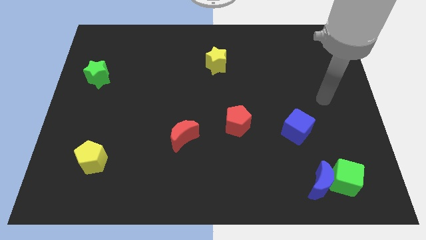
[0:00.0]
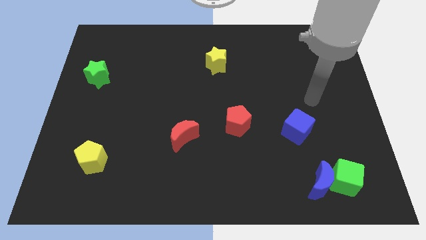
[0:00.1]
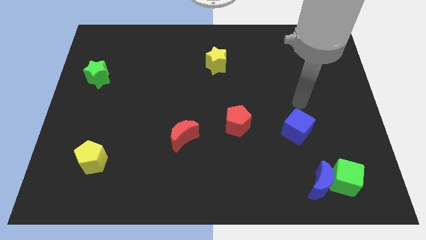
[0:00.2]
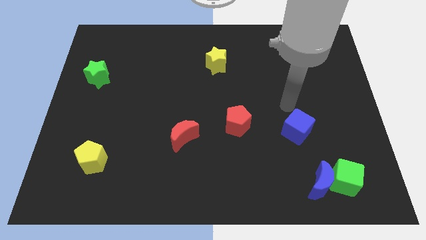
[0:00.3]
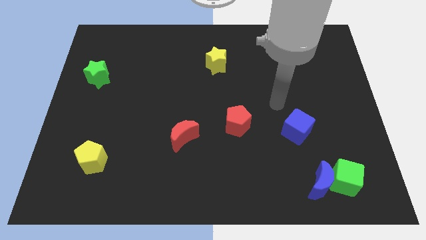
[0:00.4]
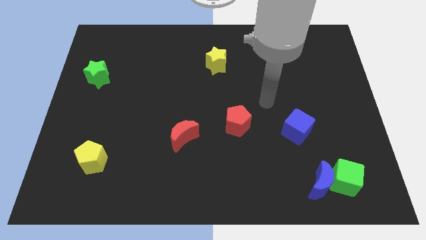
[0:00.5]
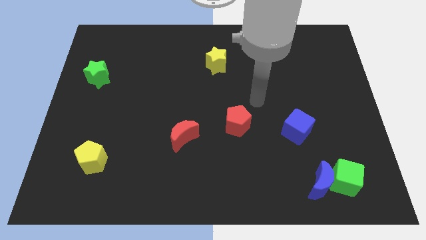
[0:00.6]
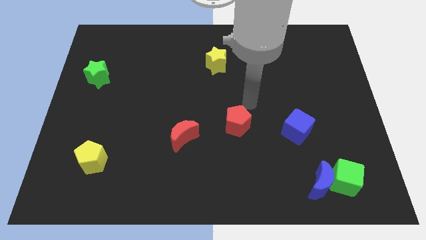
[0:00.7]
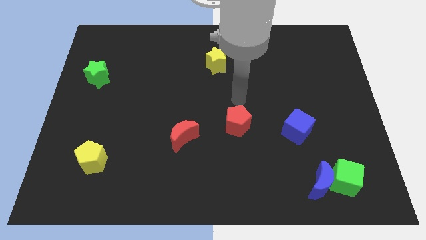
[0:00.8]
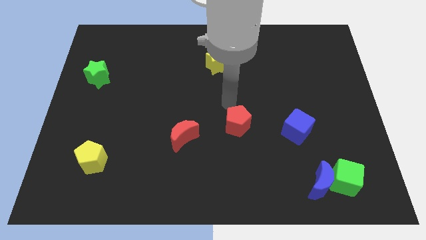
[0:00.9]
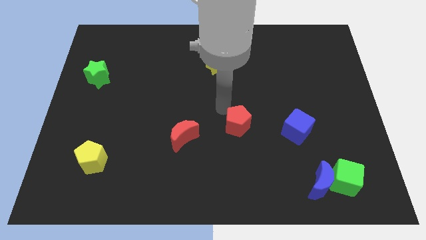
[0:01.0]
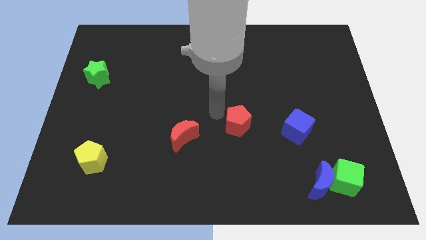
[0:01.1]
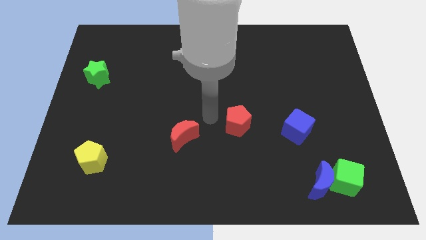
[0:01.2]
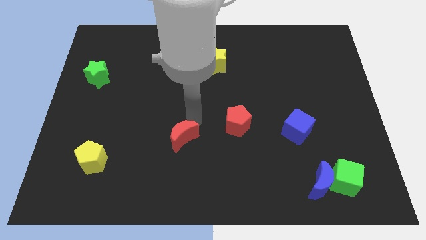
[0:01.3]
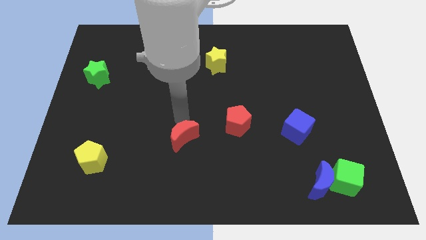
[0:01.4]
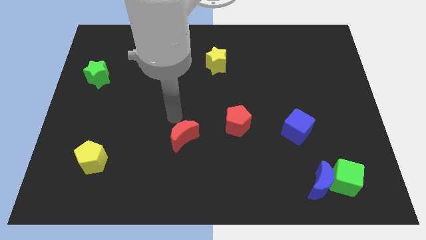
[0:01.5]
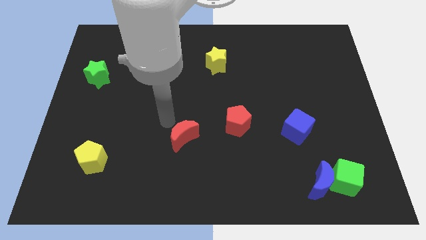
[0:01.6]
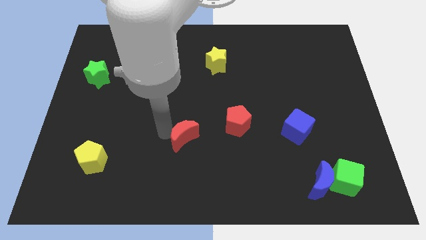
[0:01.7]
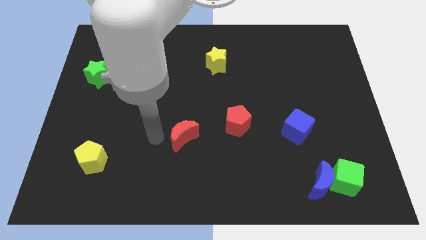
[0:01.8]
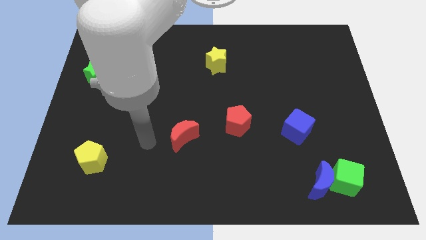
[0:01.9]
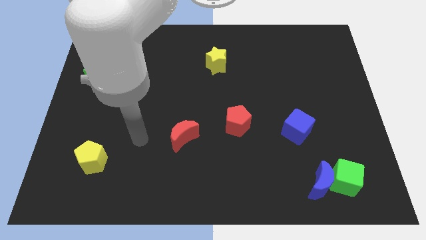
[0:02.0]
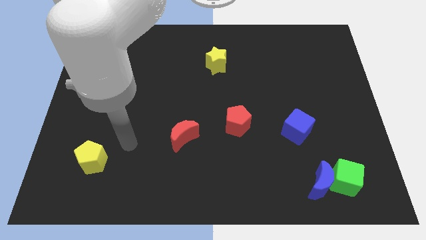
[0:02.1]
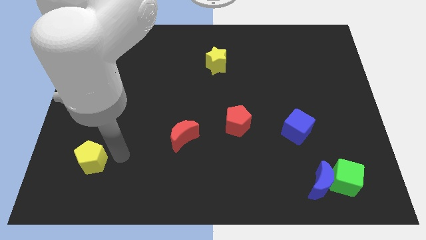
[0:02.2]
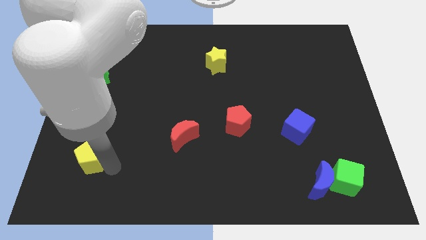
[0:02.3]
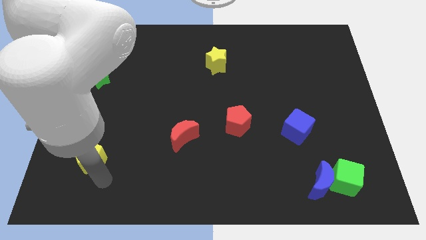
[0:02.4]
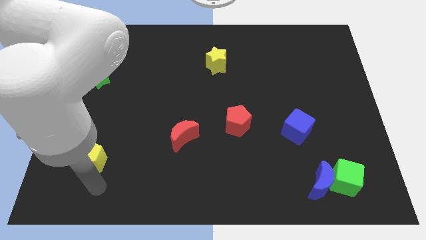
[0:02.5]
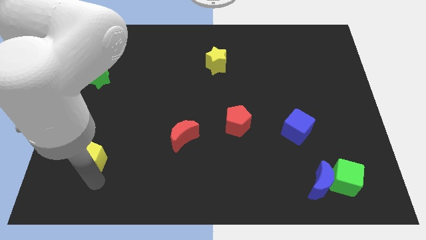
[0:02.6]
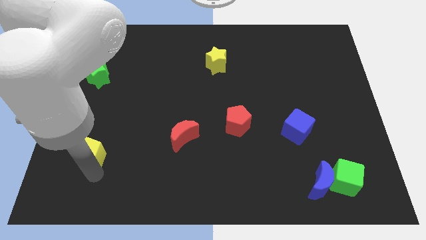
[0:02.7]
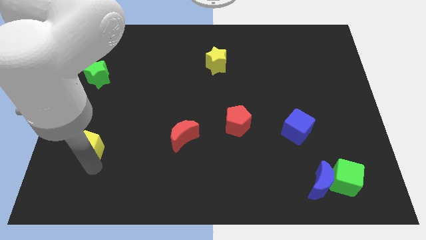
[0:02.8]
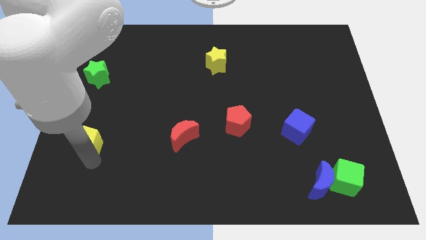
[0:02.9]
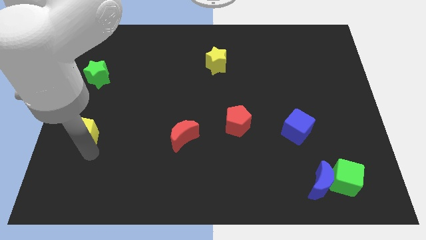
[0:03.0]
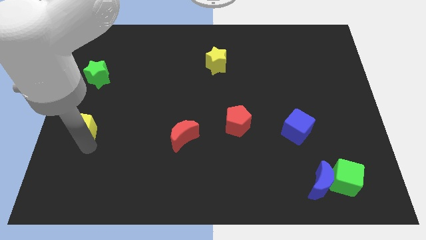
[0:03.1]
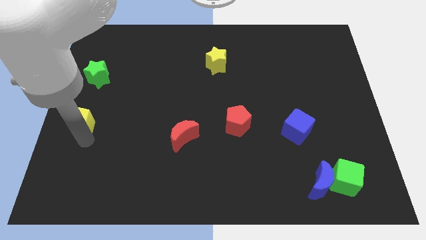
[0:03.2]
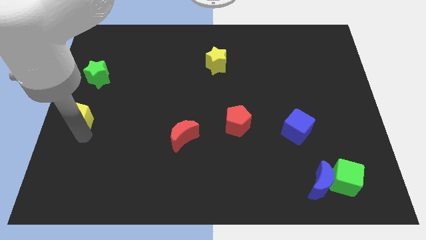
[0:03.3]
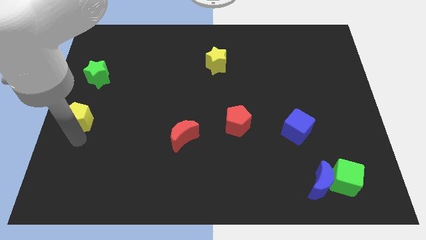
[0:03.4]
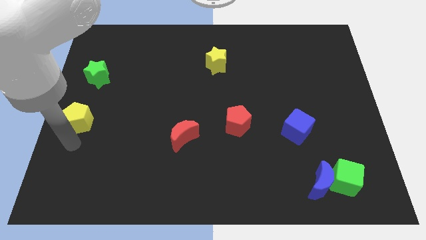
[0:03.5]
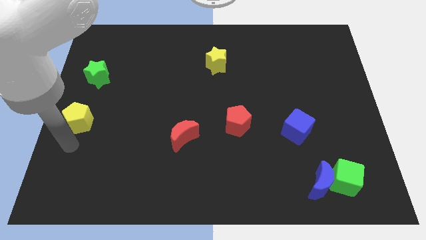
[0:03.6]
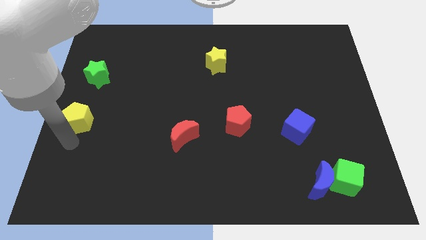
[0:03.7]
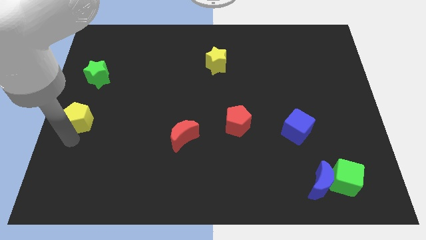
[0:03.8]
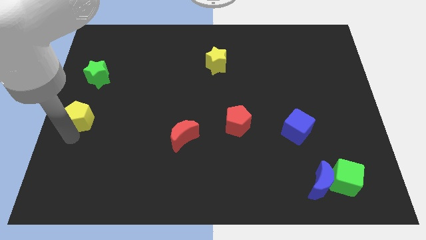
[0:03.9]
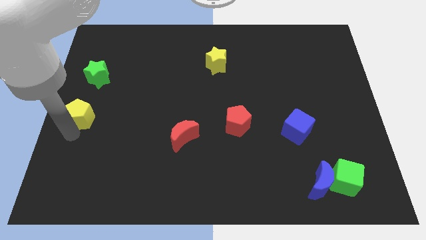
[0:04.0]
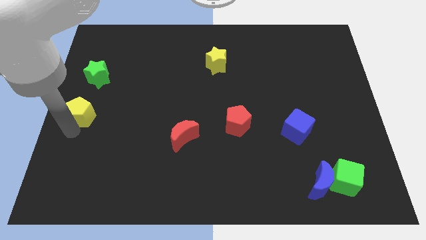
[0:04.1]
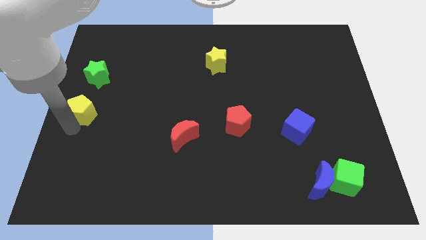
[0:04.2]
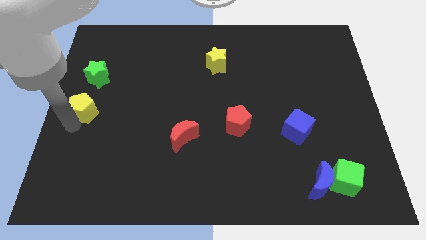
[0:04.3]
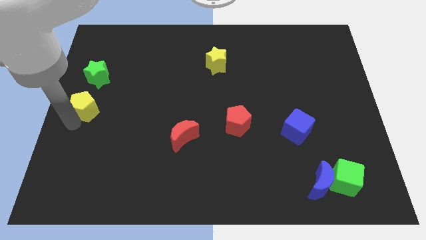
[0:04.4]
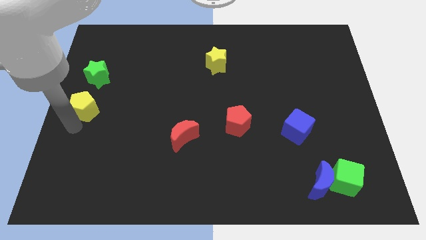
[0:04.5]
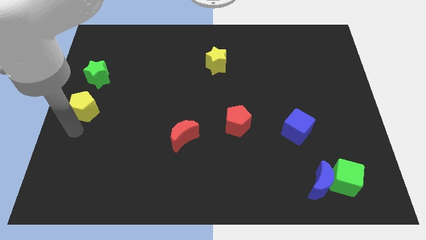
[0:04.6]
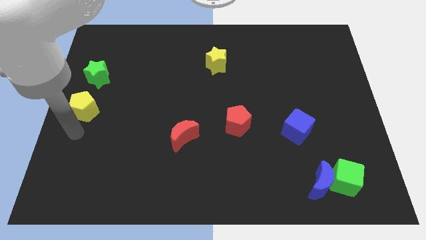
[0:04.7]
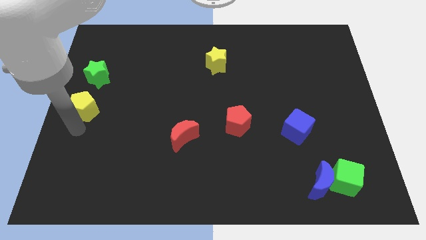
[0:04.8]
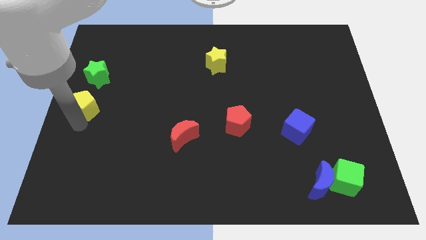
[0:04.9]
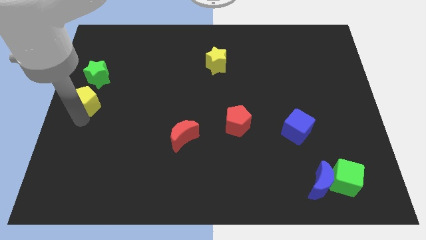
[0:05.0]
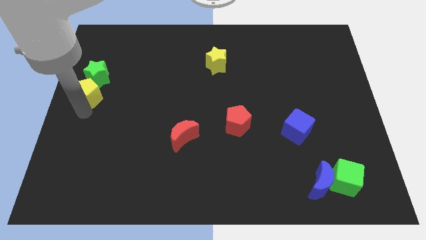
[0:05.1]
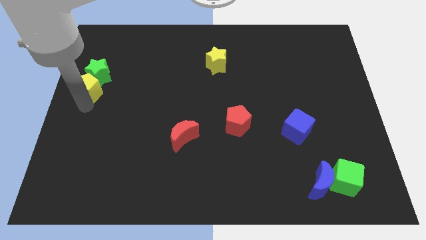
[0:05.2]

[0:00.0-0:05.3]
move the yellow pentagon to the green star

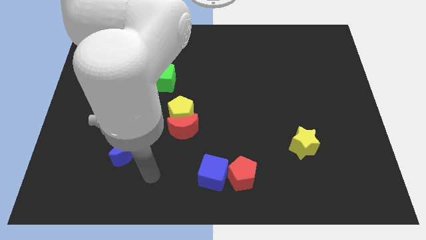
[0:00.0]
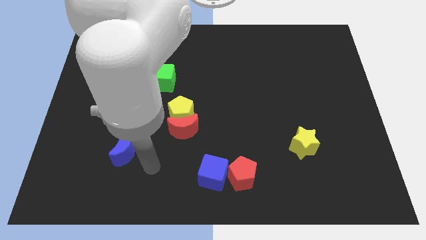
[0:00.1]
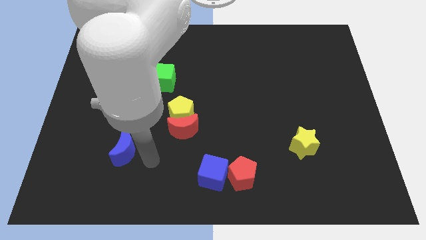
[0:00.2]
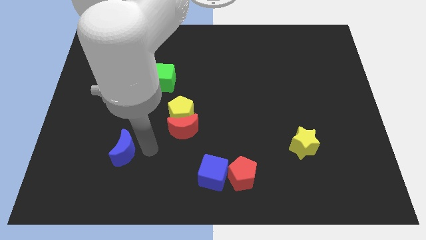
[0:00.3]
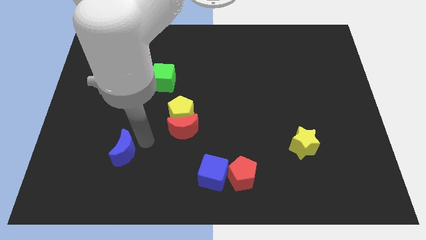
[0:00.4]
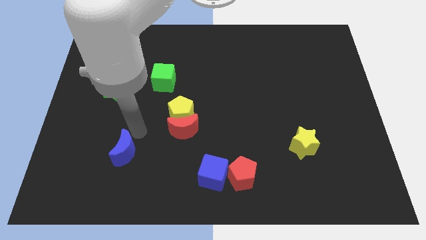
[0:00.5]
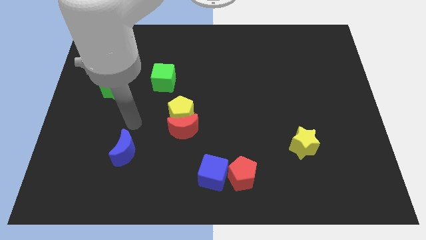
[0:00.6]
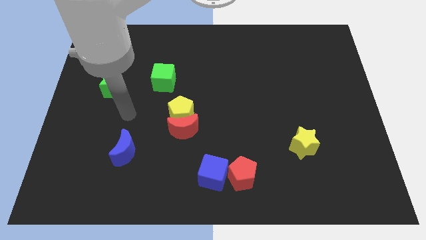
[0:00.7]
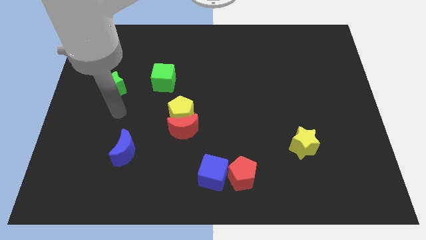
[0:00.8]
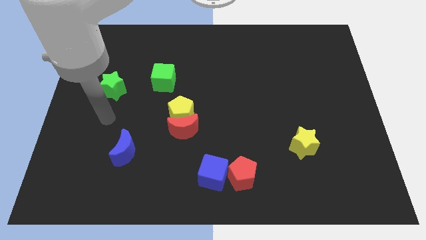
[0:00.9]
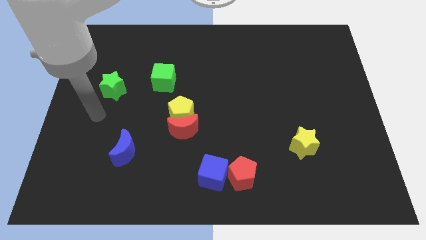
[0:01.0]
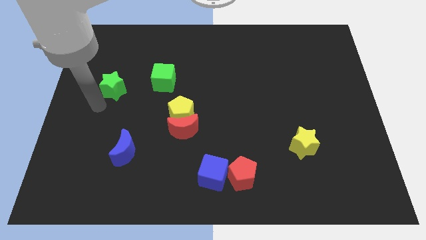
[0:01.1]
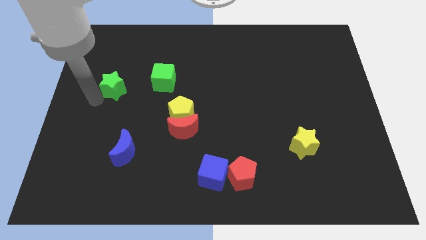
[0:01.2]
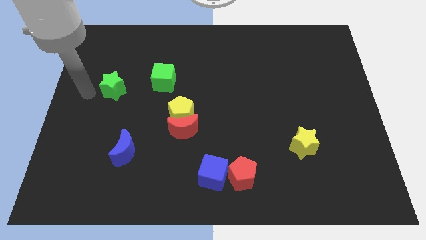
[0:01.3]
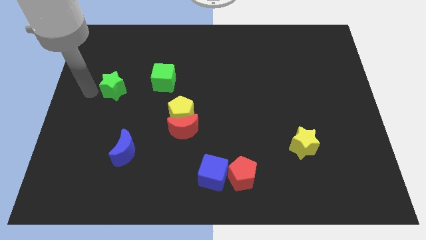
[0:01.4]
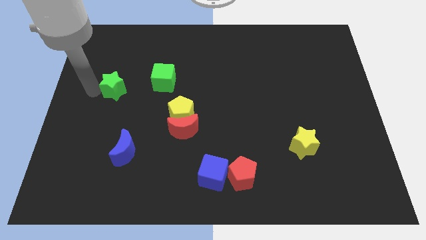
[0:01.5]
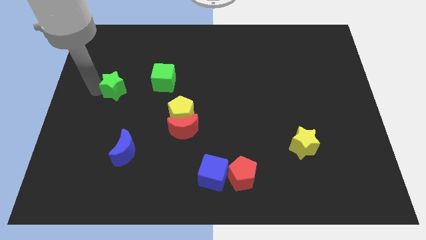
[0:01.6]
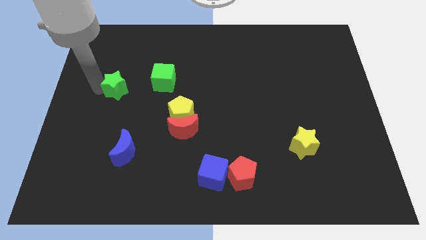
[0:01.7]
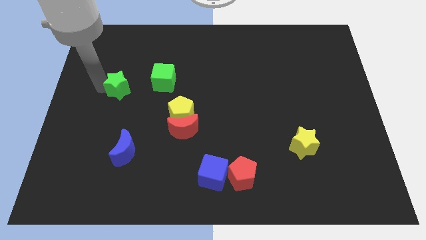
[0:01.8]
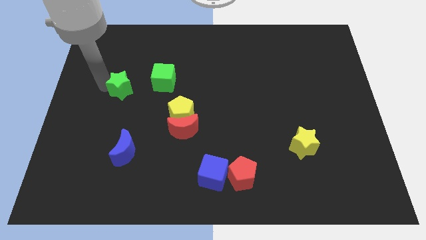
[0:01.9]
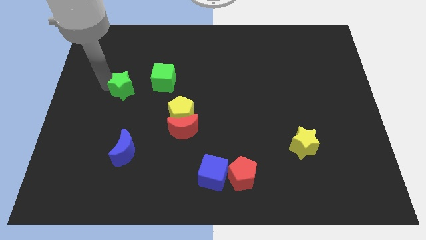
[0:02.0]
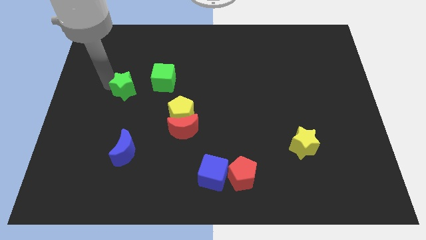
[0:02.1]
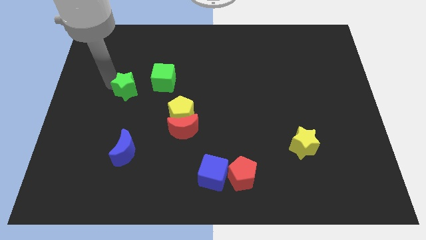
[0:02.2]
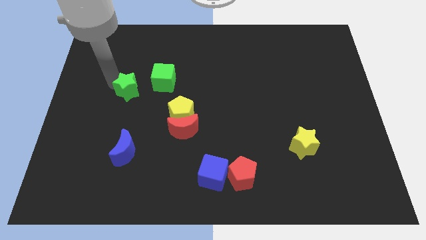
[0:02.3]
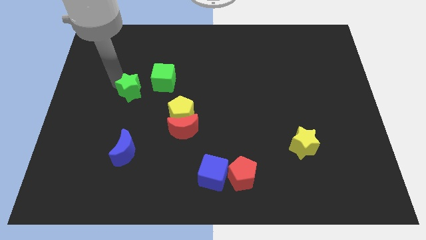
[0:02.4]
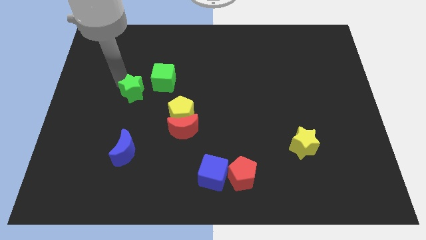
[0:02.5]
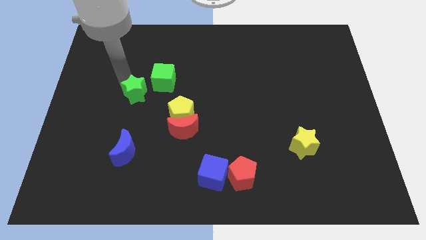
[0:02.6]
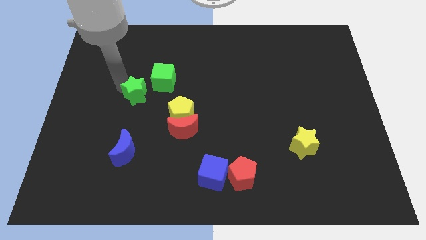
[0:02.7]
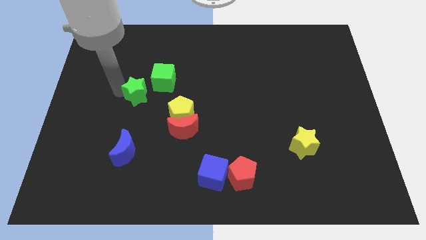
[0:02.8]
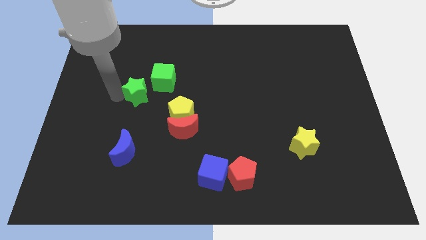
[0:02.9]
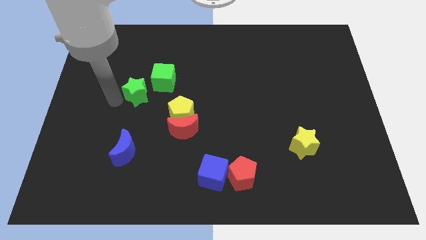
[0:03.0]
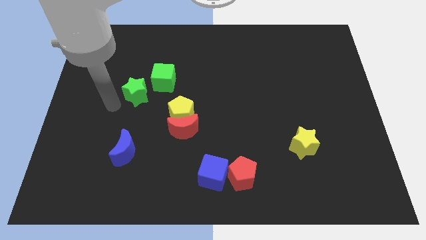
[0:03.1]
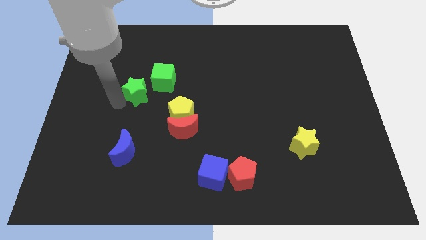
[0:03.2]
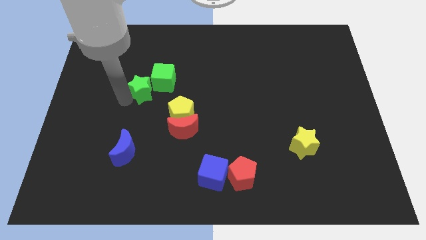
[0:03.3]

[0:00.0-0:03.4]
move the green star to the green cube
